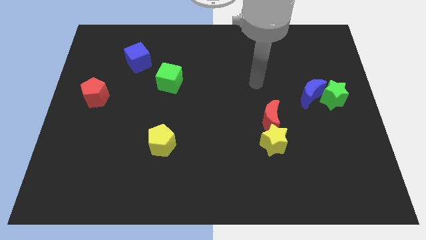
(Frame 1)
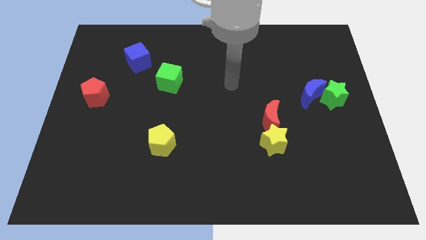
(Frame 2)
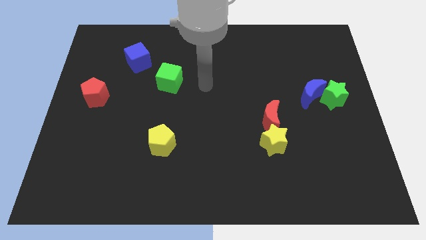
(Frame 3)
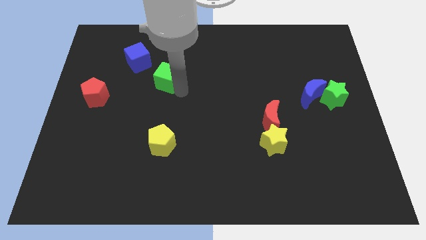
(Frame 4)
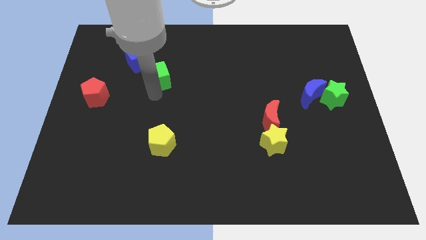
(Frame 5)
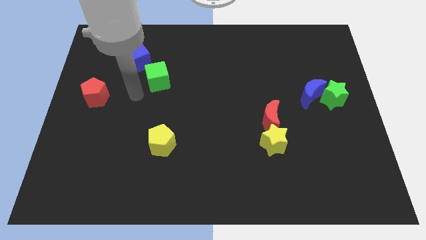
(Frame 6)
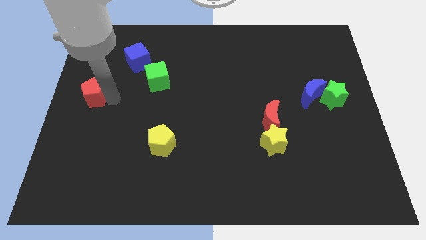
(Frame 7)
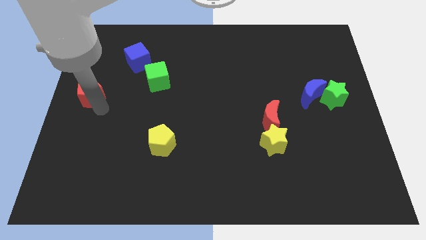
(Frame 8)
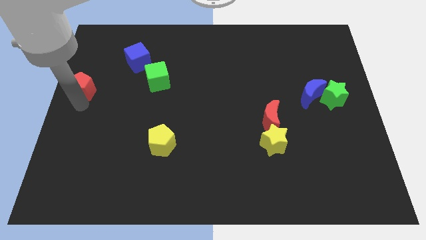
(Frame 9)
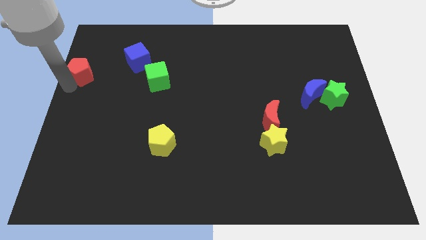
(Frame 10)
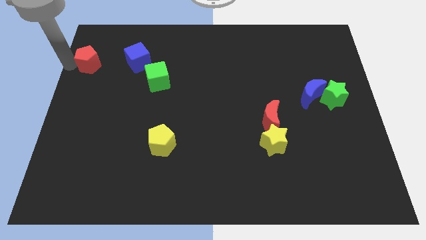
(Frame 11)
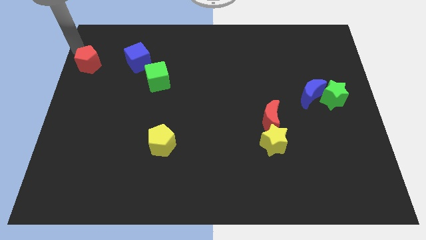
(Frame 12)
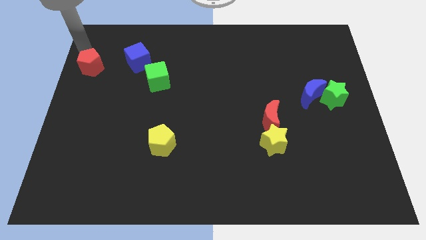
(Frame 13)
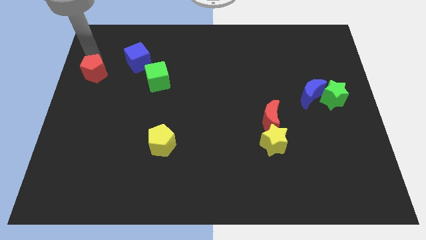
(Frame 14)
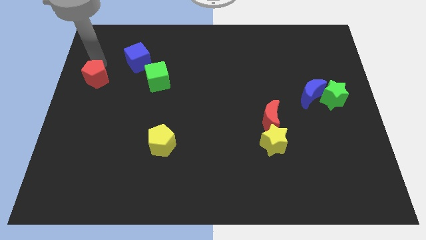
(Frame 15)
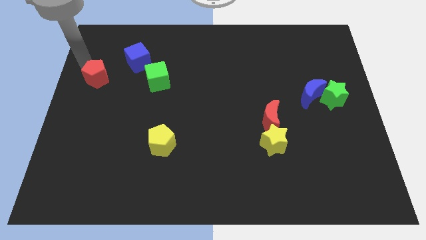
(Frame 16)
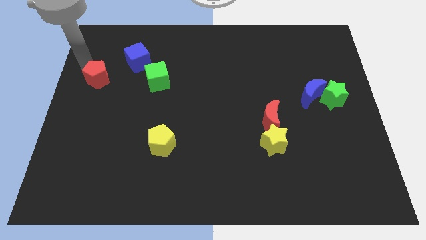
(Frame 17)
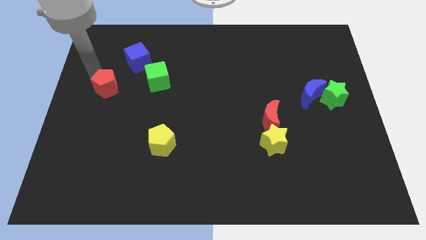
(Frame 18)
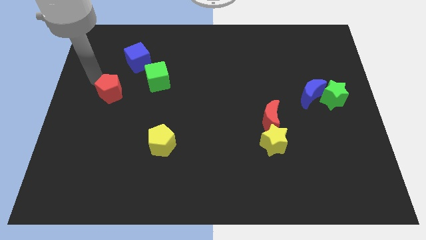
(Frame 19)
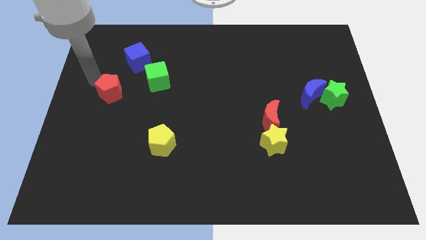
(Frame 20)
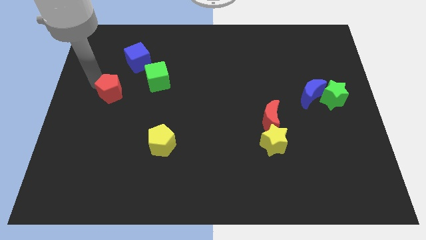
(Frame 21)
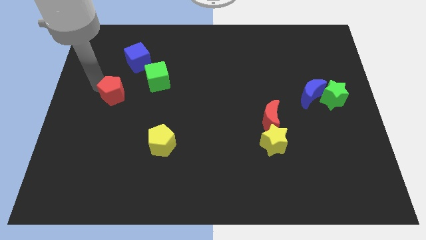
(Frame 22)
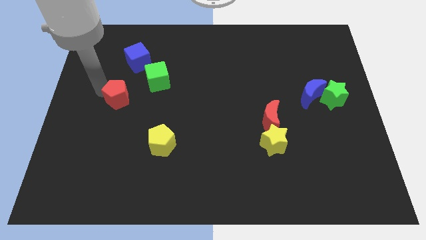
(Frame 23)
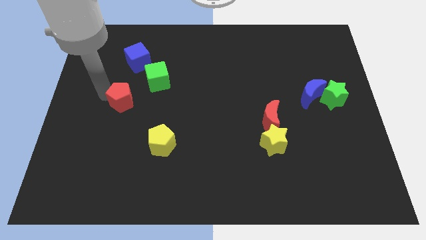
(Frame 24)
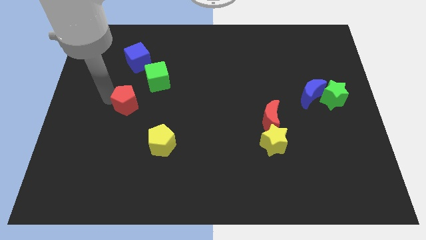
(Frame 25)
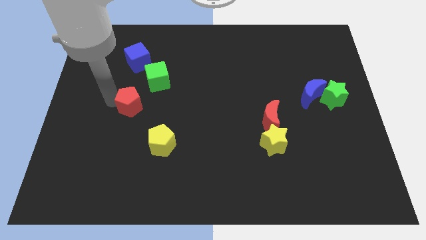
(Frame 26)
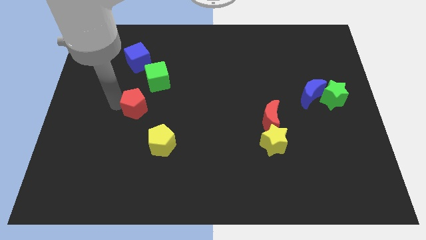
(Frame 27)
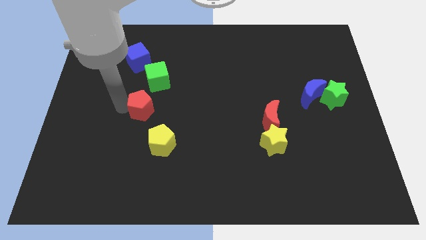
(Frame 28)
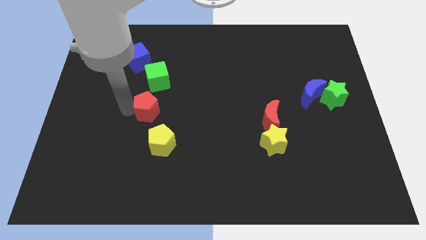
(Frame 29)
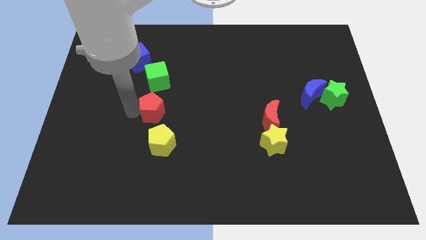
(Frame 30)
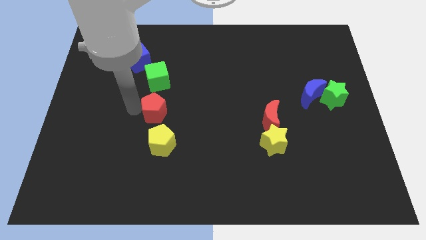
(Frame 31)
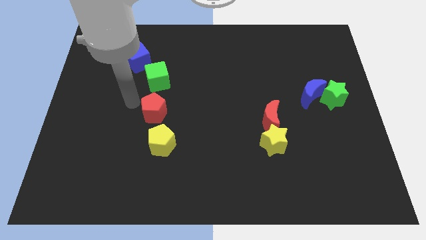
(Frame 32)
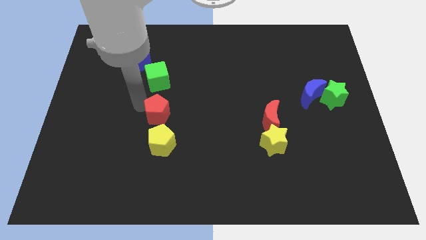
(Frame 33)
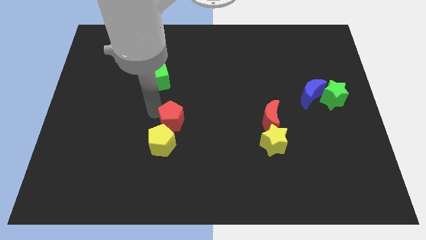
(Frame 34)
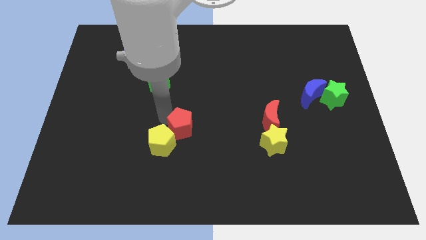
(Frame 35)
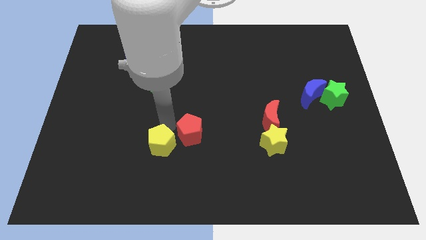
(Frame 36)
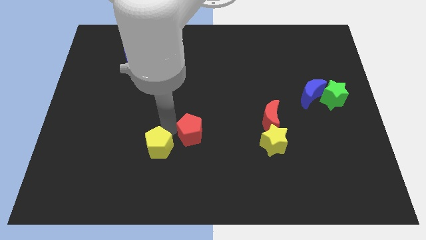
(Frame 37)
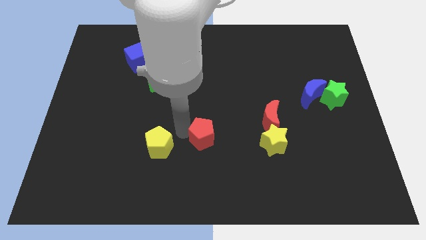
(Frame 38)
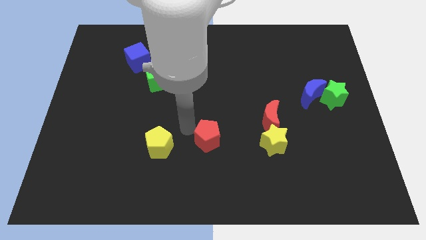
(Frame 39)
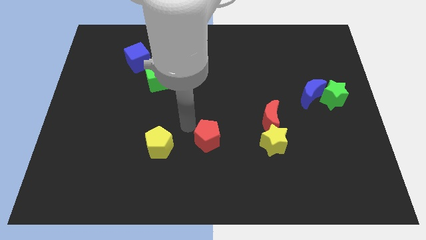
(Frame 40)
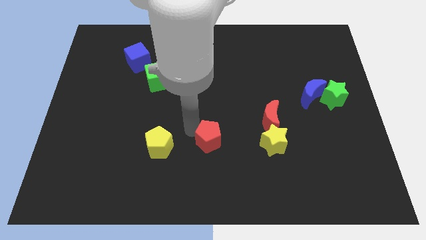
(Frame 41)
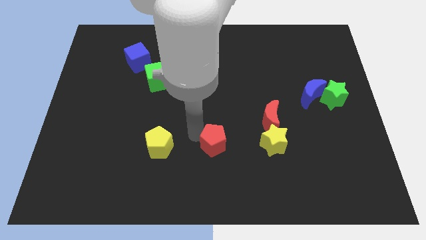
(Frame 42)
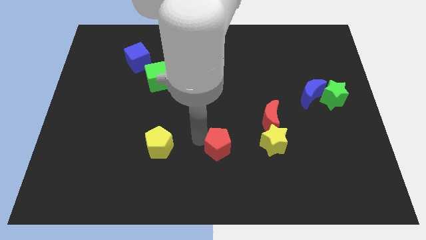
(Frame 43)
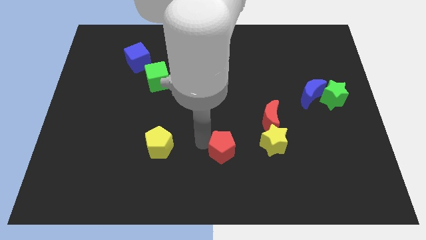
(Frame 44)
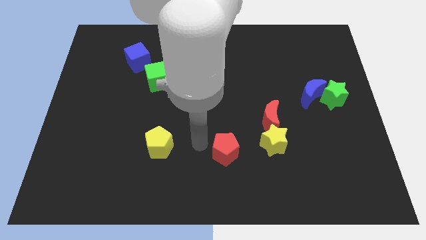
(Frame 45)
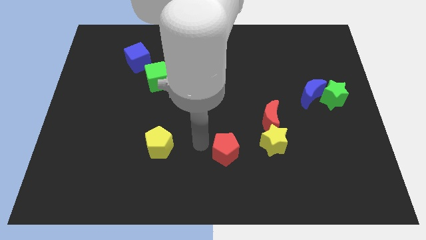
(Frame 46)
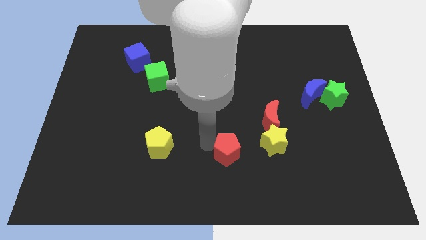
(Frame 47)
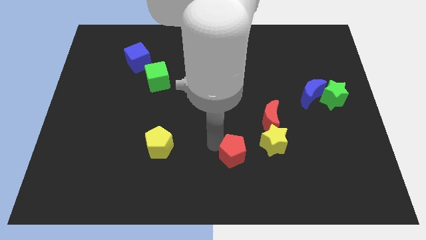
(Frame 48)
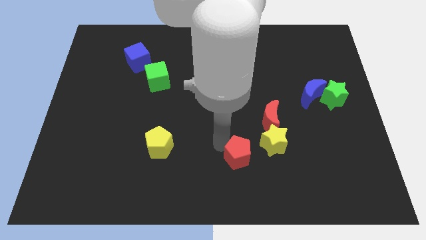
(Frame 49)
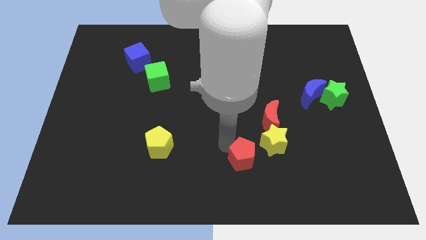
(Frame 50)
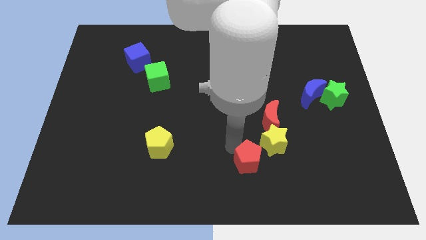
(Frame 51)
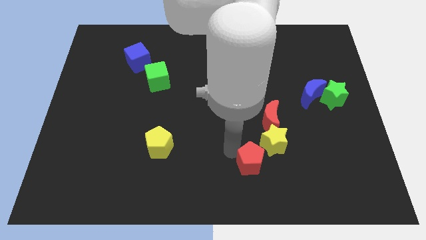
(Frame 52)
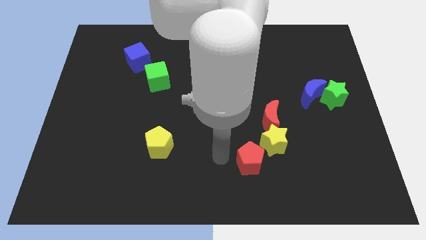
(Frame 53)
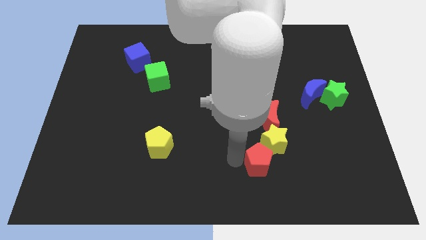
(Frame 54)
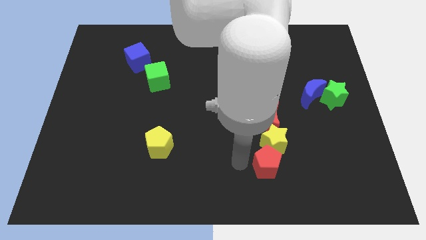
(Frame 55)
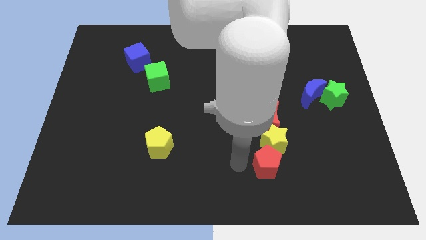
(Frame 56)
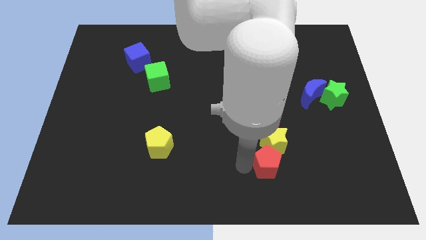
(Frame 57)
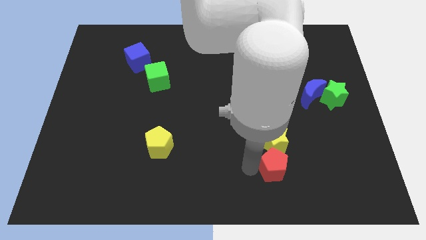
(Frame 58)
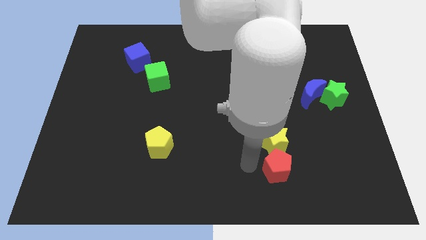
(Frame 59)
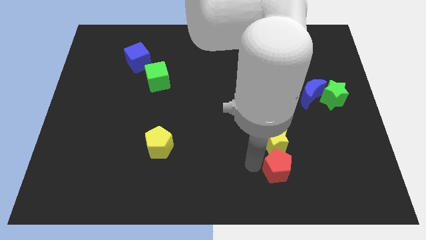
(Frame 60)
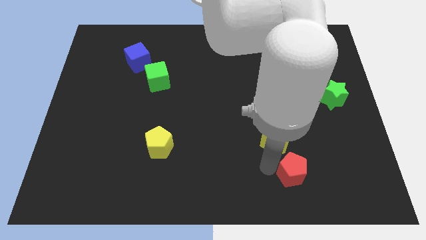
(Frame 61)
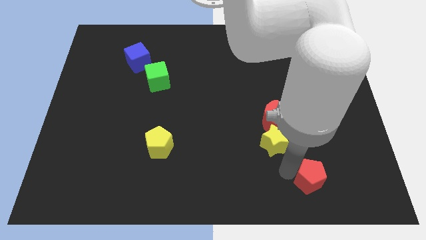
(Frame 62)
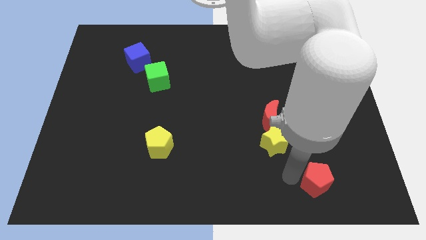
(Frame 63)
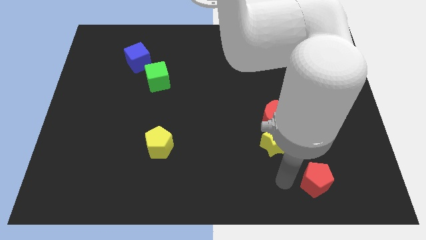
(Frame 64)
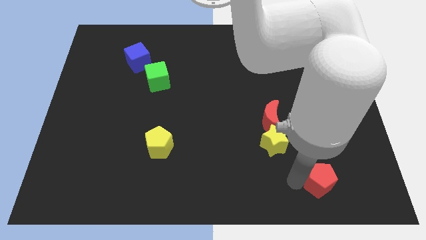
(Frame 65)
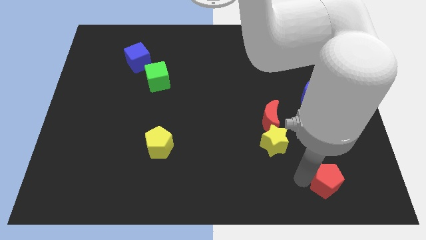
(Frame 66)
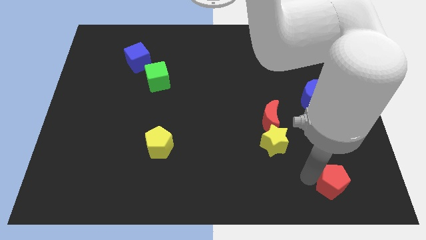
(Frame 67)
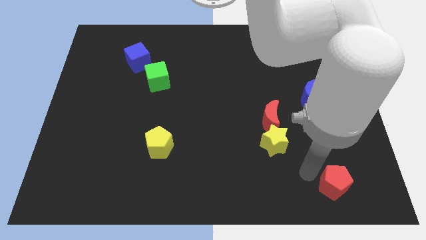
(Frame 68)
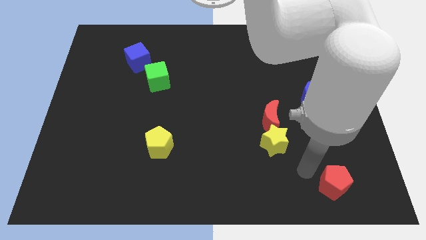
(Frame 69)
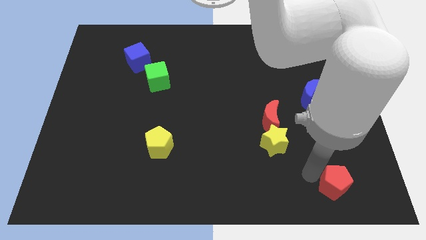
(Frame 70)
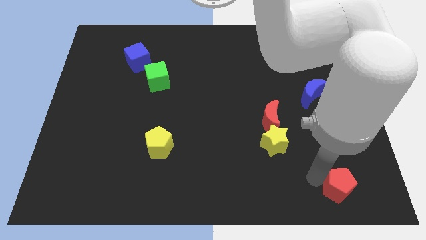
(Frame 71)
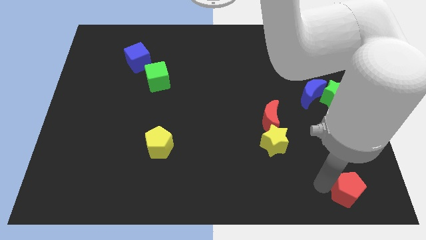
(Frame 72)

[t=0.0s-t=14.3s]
put the red pentagon to the lower right corner
